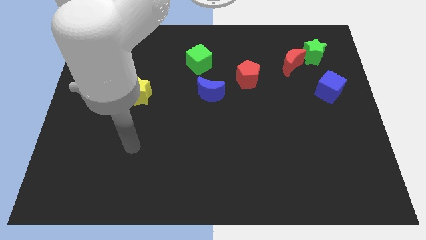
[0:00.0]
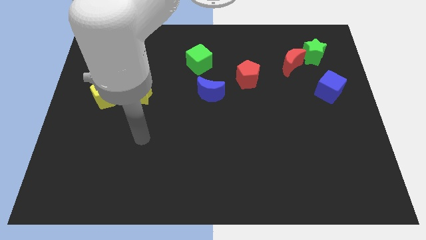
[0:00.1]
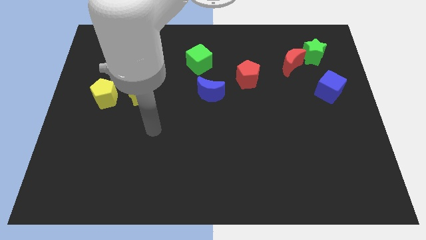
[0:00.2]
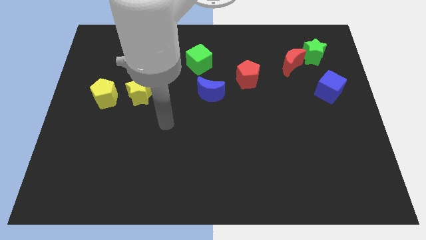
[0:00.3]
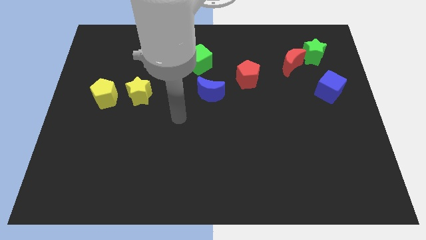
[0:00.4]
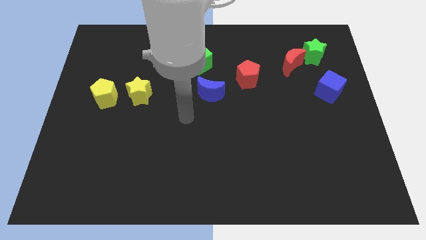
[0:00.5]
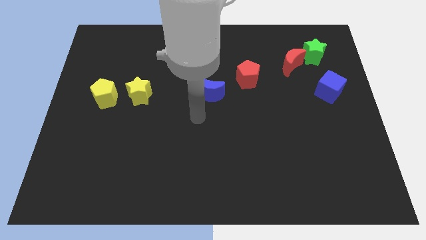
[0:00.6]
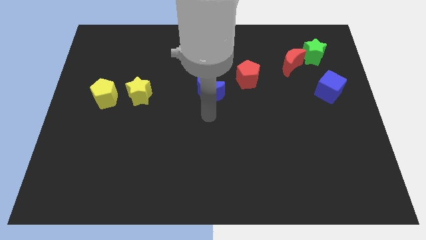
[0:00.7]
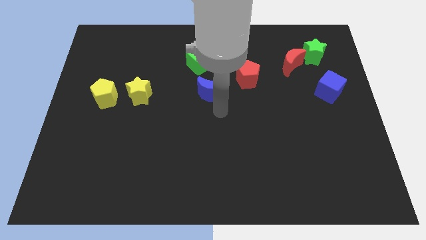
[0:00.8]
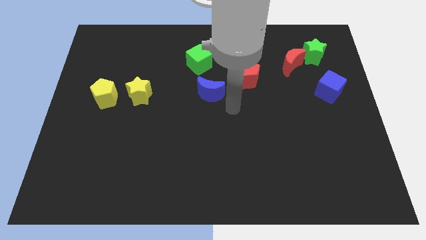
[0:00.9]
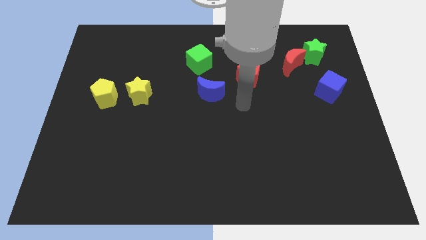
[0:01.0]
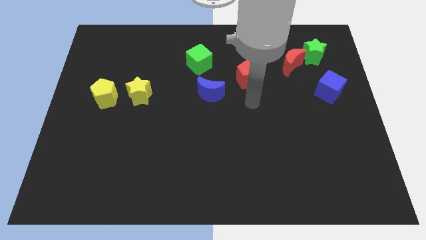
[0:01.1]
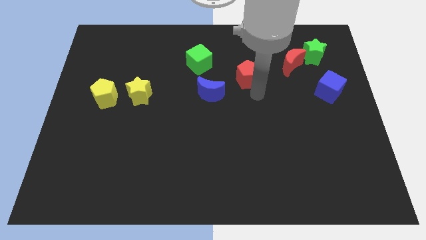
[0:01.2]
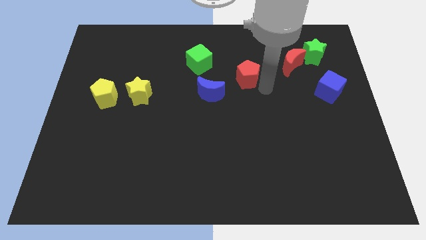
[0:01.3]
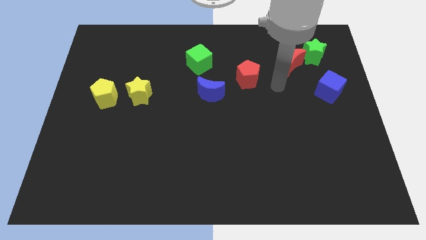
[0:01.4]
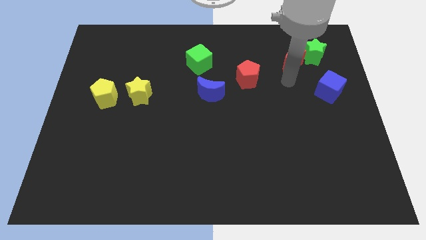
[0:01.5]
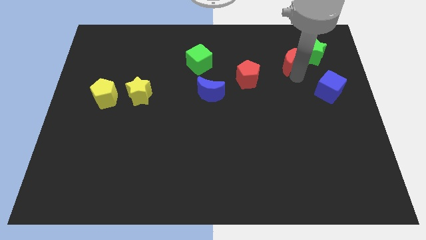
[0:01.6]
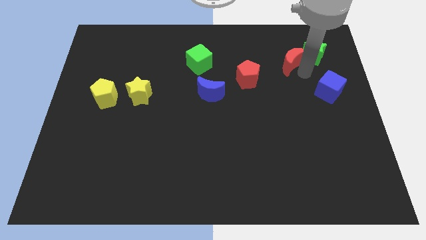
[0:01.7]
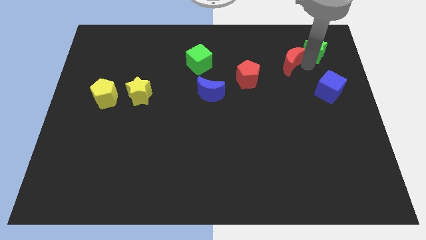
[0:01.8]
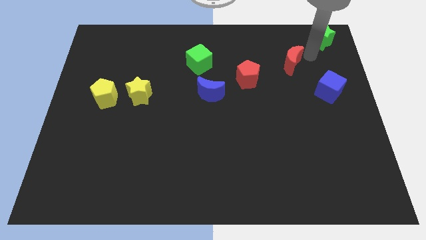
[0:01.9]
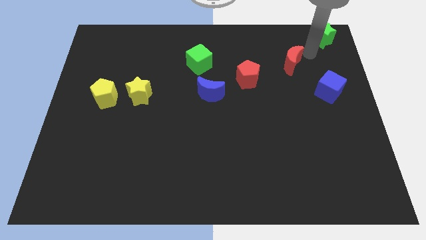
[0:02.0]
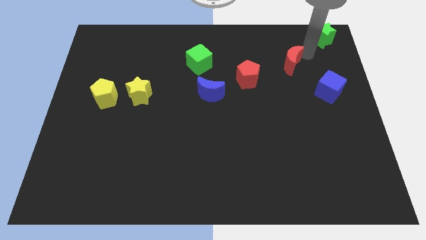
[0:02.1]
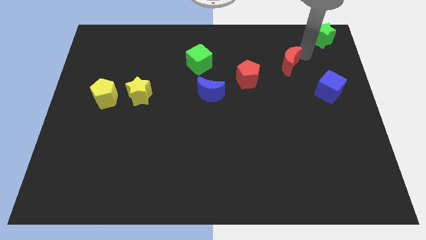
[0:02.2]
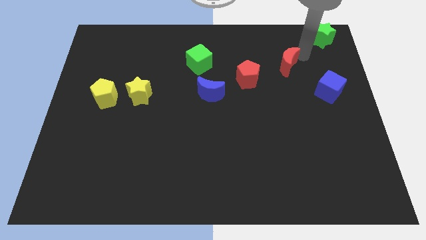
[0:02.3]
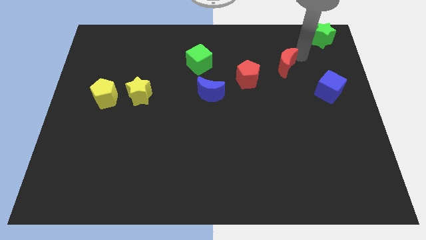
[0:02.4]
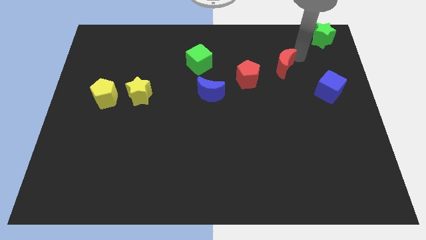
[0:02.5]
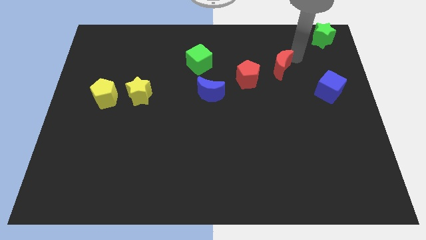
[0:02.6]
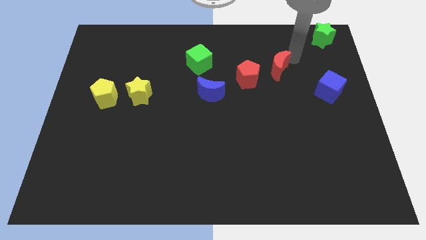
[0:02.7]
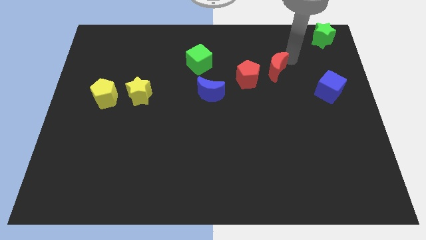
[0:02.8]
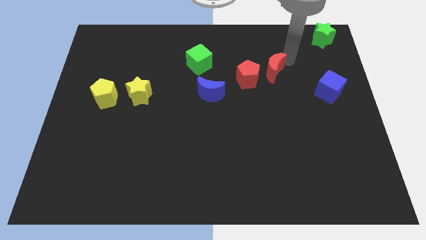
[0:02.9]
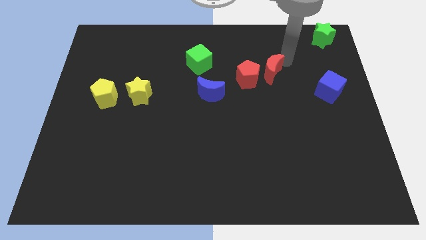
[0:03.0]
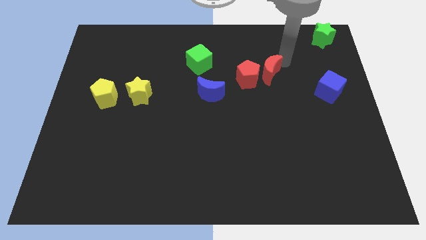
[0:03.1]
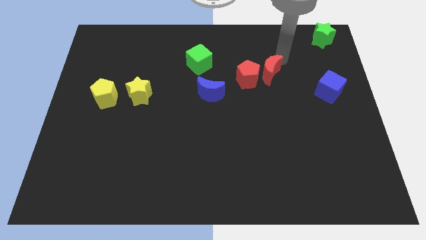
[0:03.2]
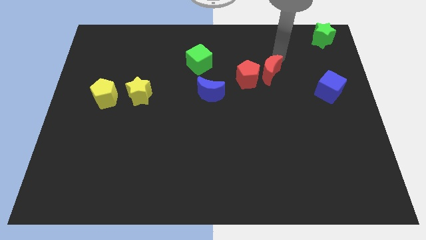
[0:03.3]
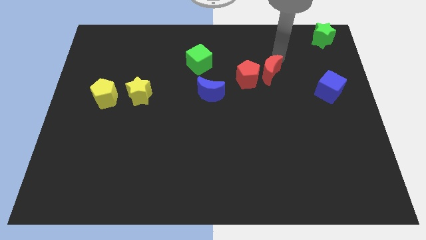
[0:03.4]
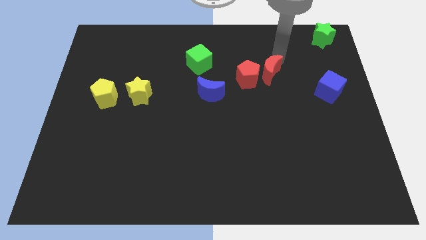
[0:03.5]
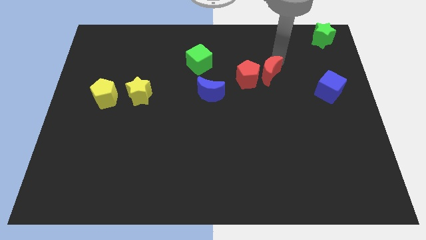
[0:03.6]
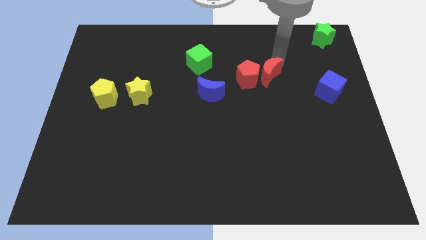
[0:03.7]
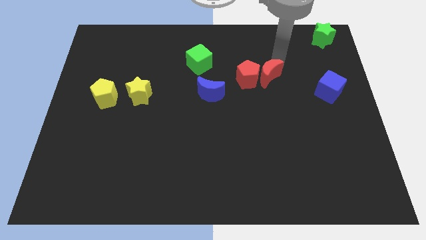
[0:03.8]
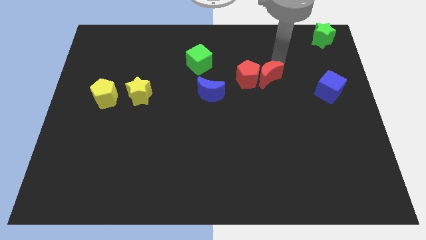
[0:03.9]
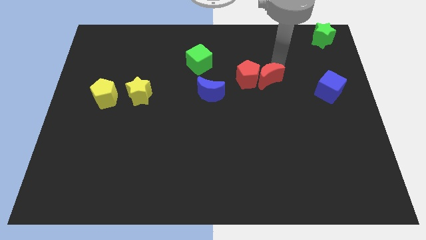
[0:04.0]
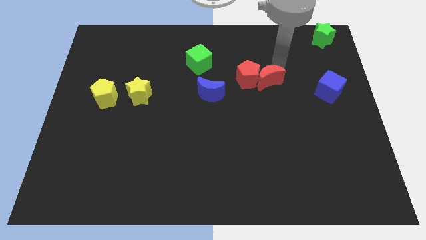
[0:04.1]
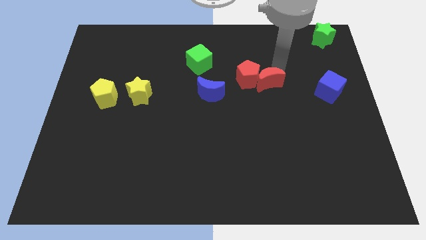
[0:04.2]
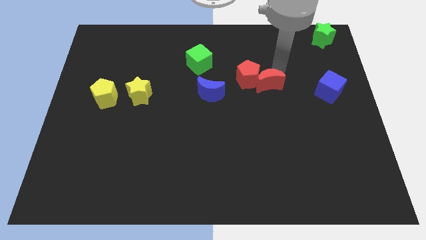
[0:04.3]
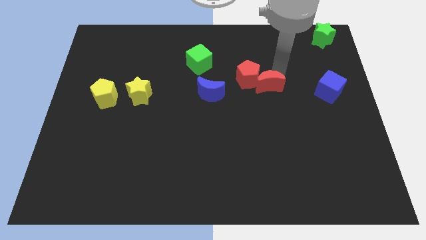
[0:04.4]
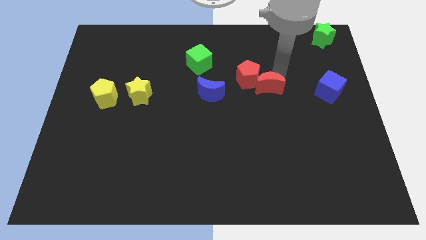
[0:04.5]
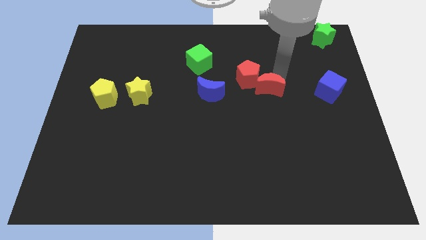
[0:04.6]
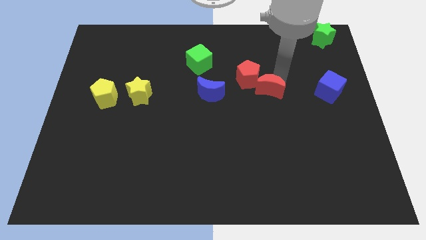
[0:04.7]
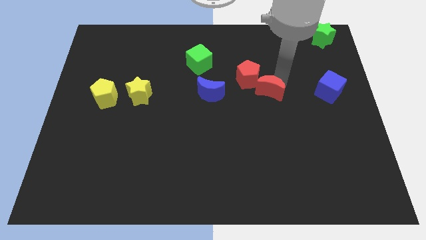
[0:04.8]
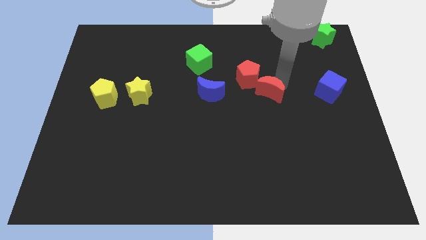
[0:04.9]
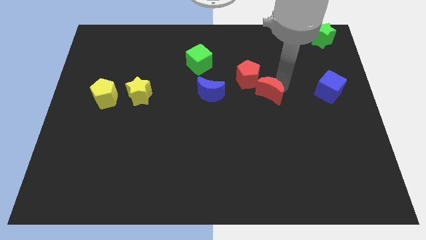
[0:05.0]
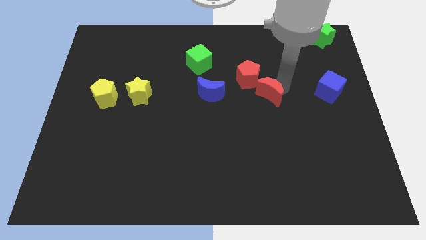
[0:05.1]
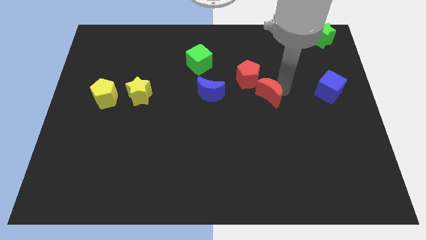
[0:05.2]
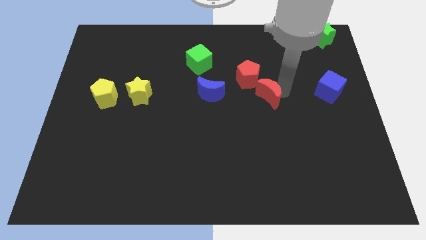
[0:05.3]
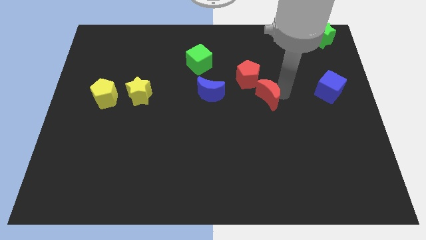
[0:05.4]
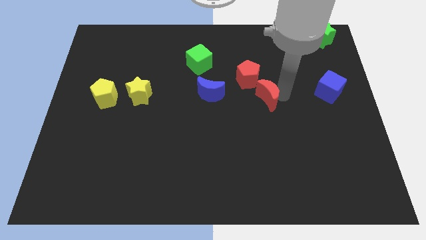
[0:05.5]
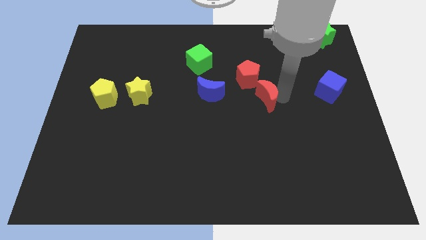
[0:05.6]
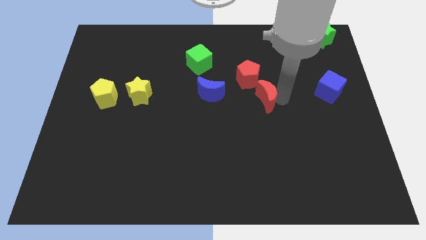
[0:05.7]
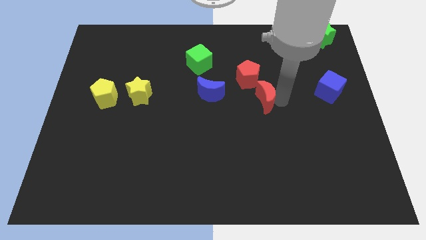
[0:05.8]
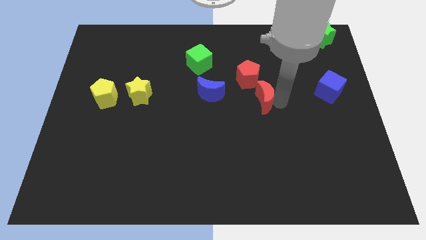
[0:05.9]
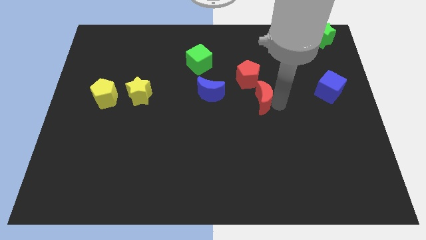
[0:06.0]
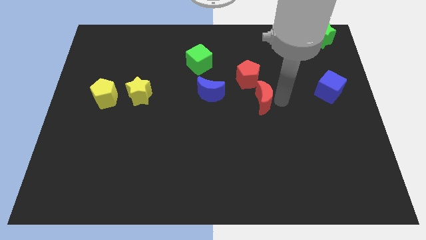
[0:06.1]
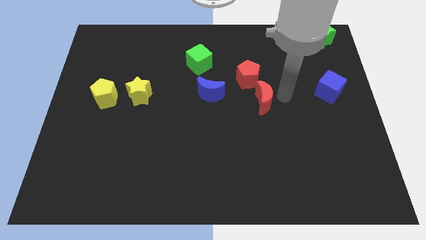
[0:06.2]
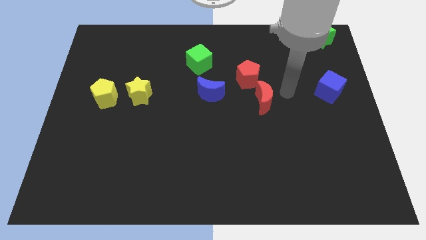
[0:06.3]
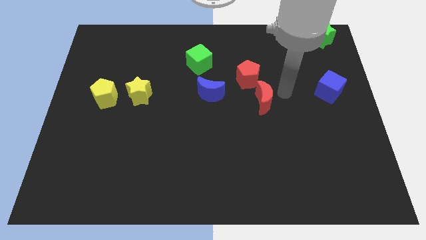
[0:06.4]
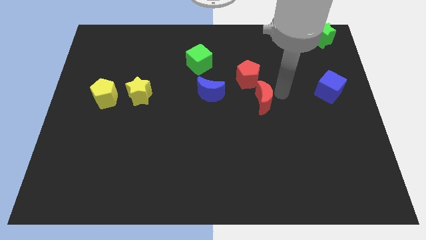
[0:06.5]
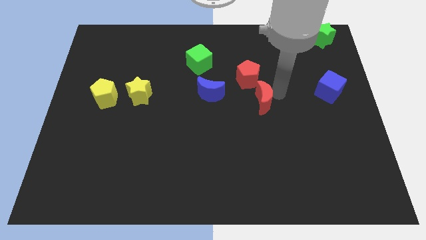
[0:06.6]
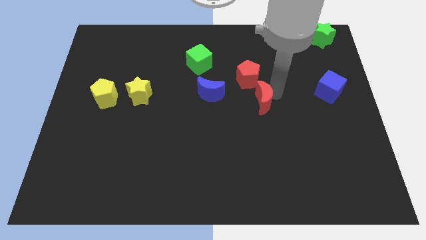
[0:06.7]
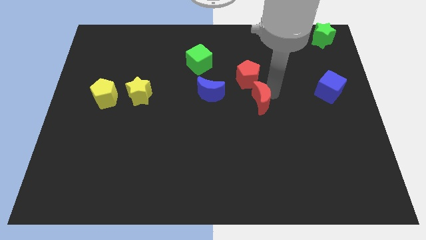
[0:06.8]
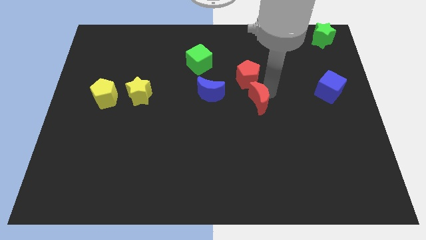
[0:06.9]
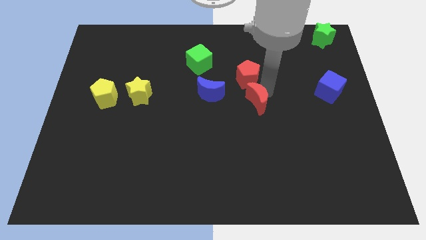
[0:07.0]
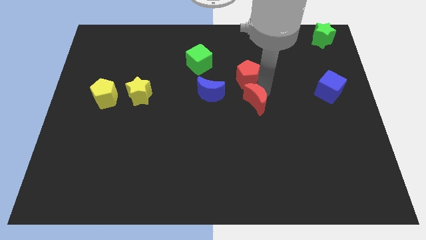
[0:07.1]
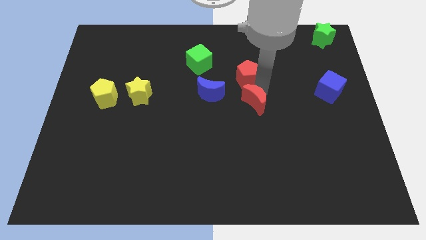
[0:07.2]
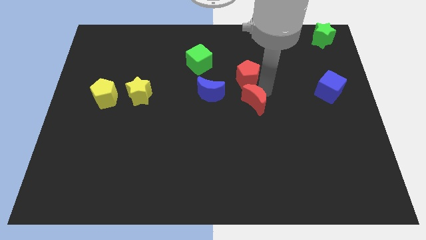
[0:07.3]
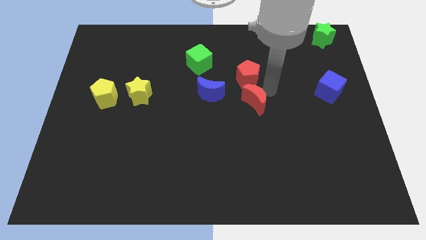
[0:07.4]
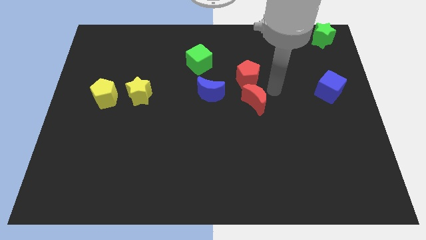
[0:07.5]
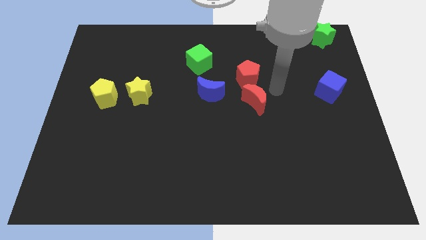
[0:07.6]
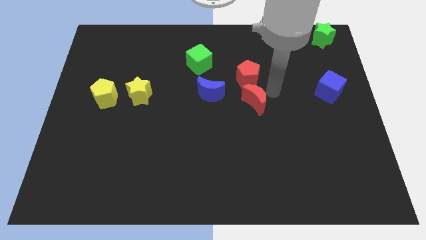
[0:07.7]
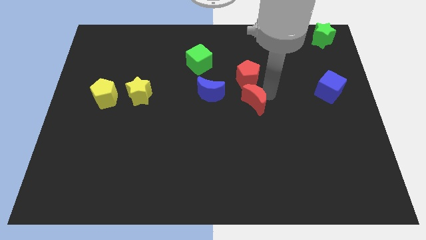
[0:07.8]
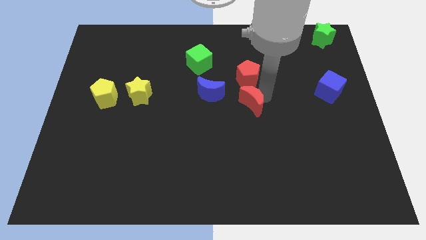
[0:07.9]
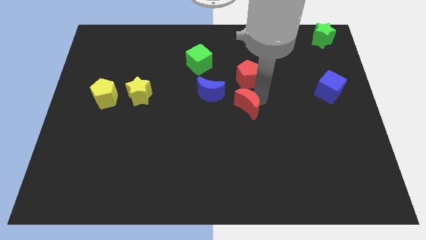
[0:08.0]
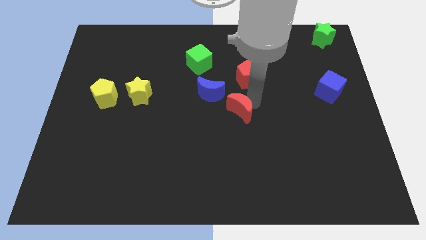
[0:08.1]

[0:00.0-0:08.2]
move the red moon down and to the left diagonally
